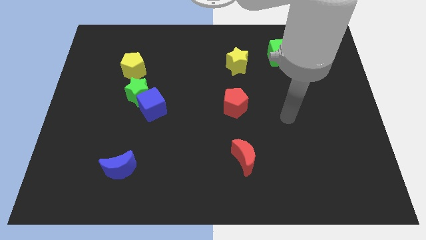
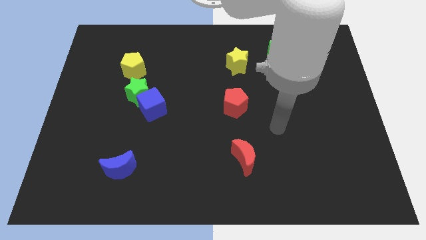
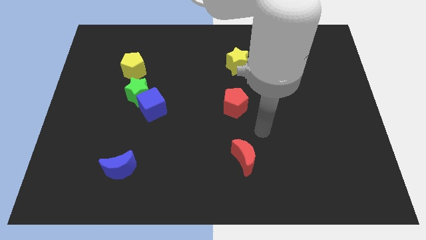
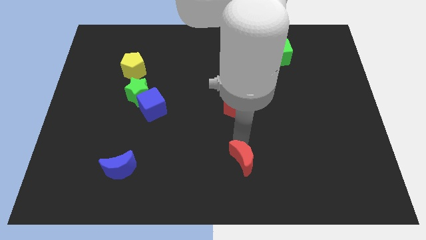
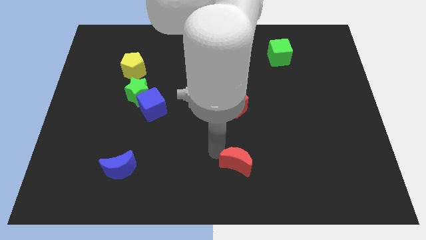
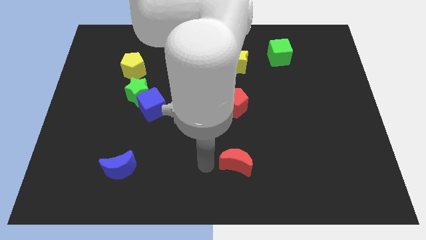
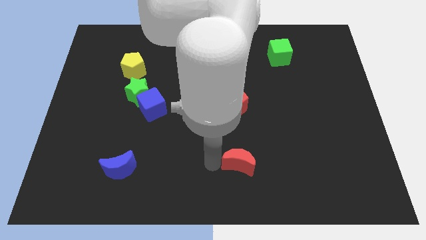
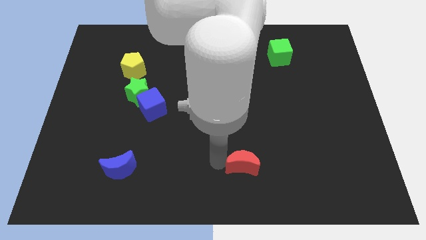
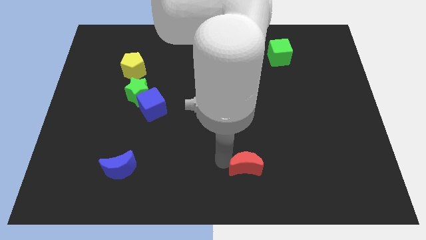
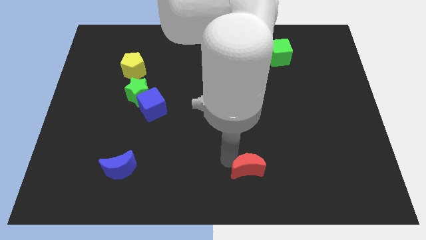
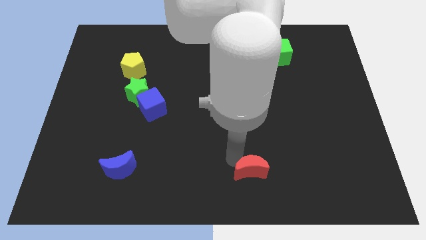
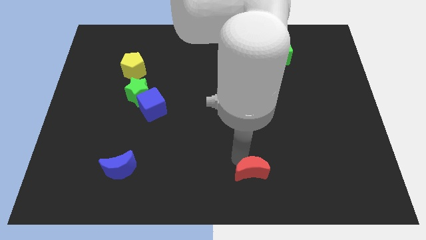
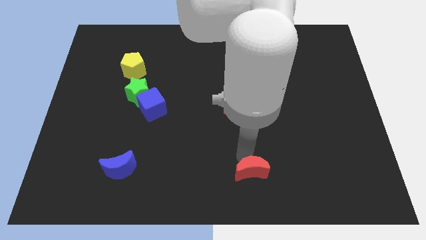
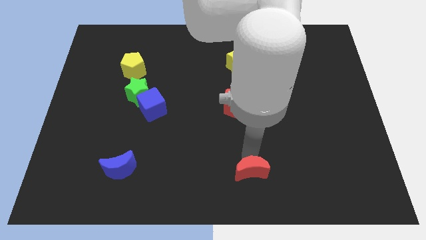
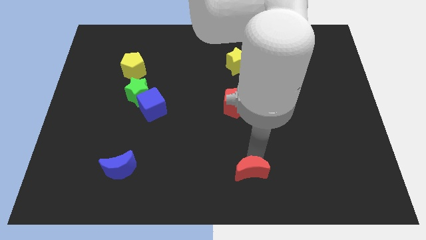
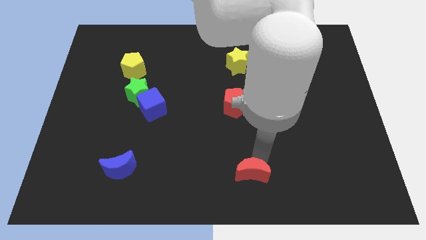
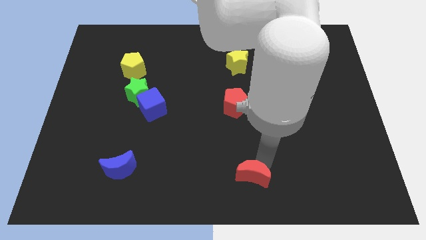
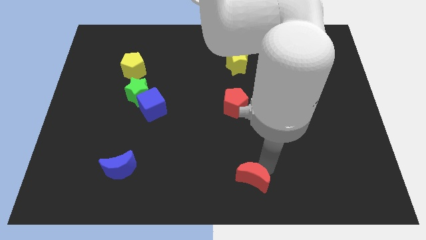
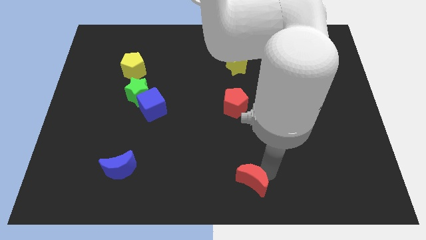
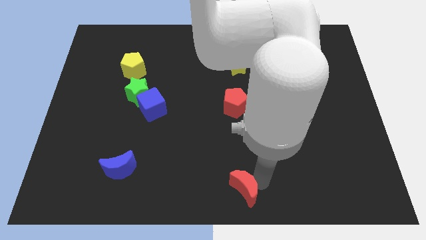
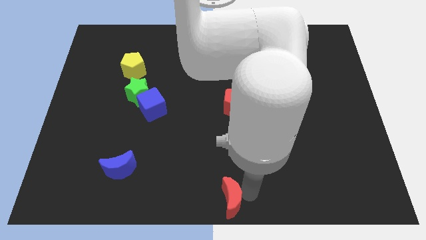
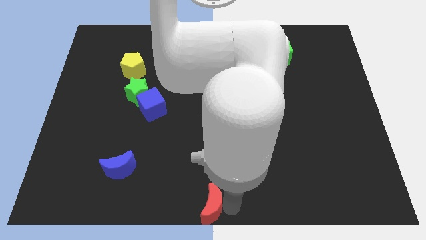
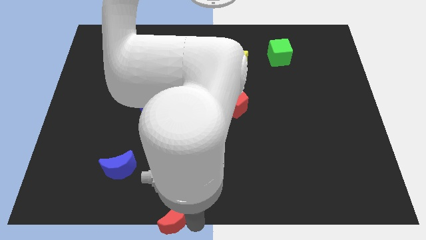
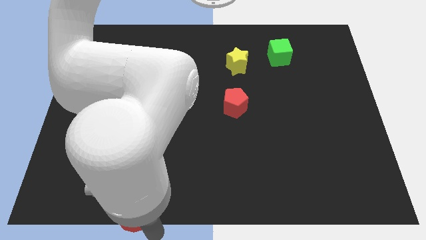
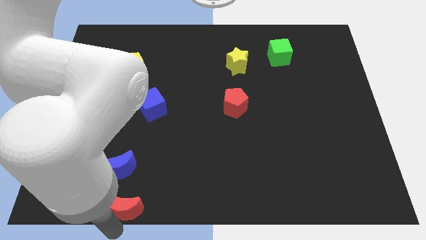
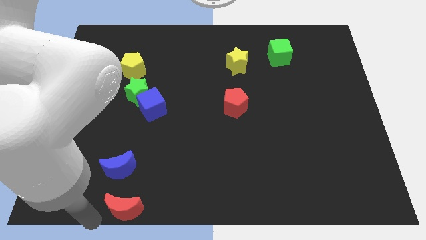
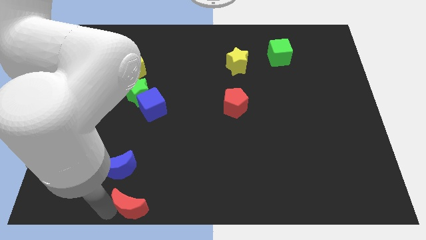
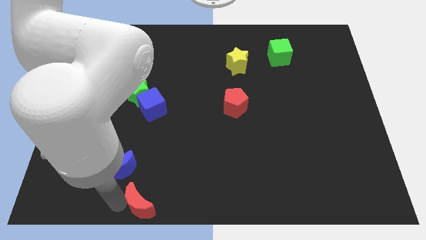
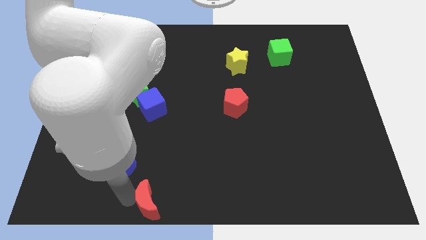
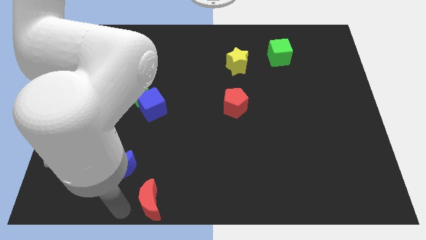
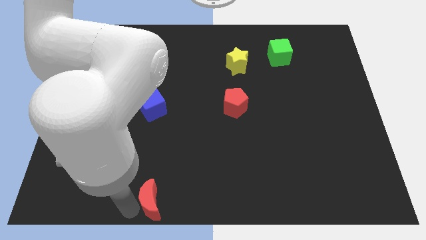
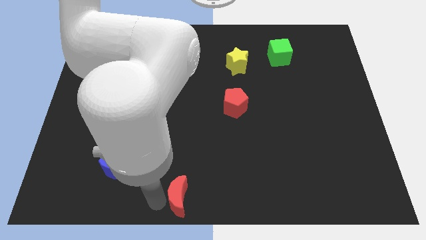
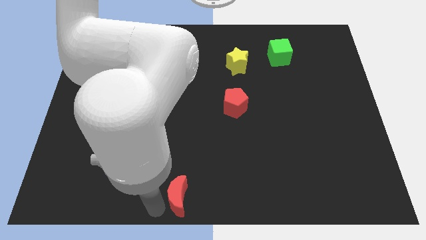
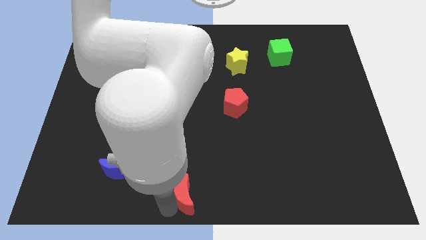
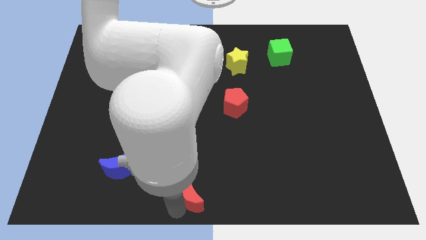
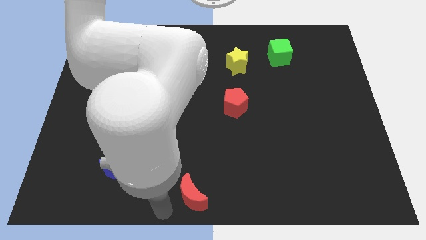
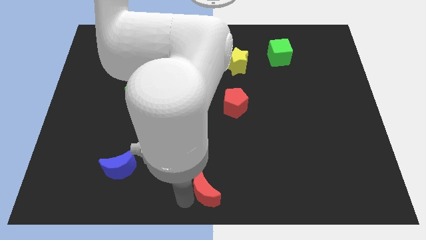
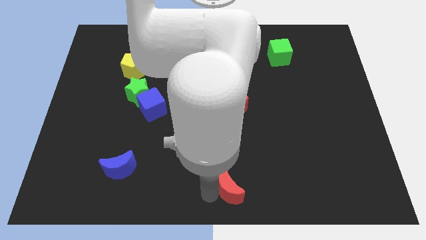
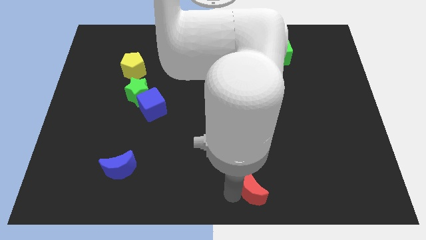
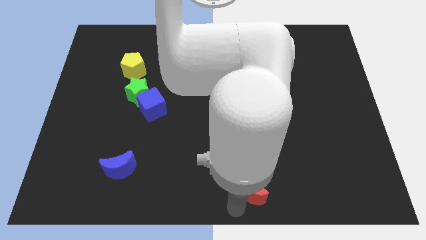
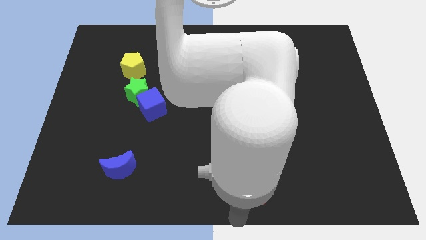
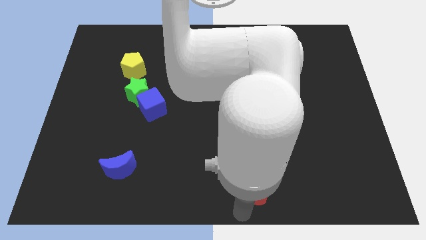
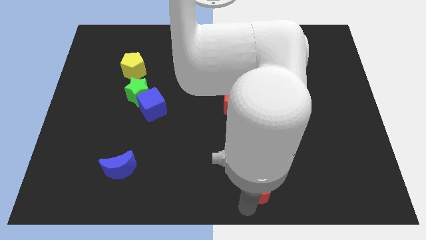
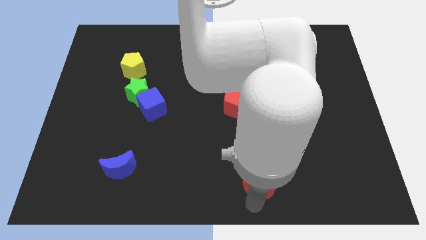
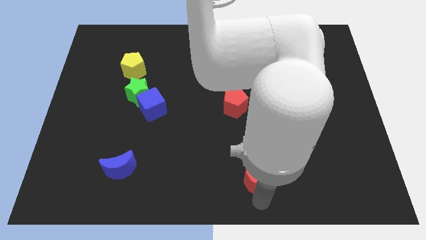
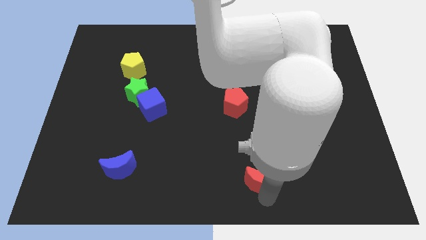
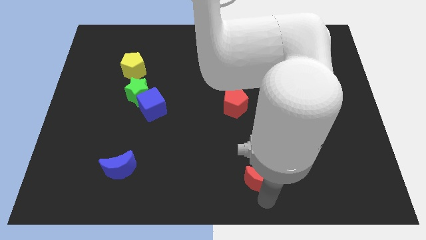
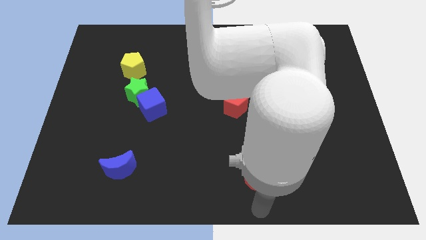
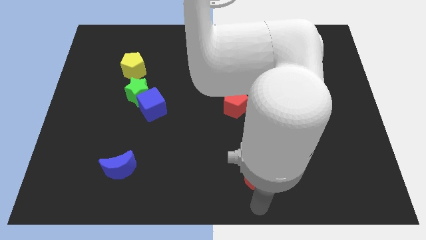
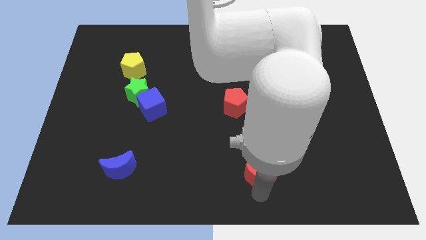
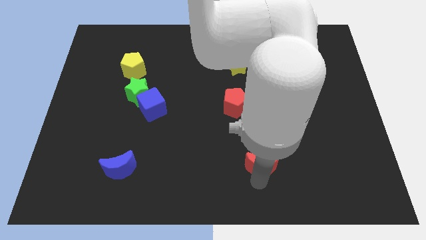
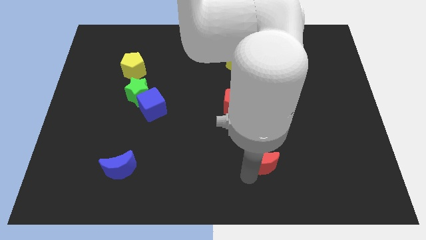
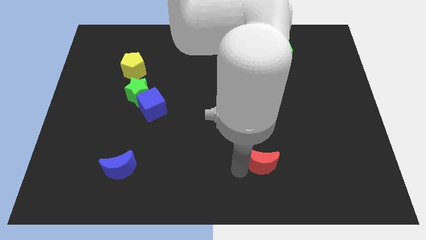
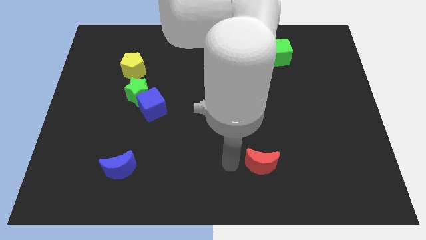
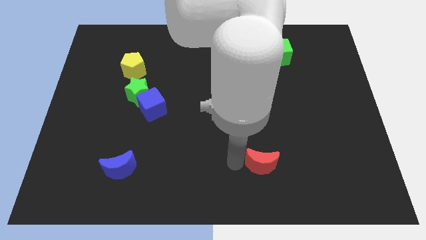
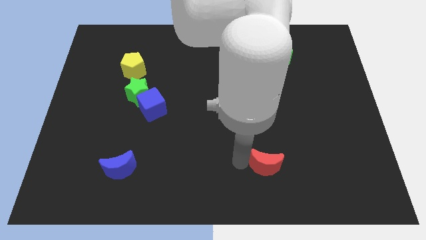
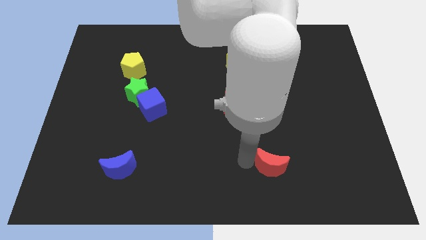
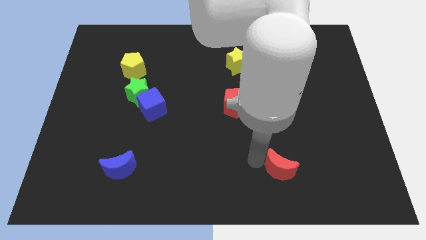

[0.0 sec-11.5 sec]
slightly slide the red moon to the right

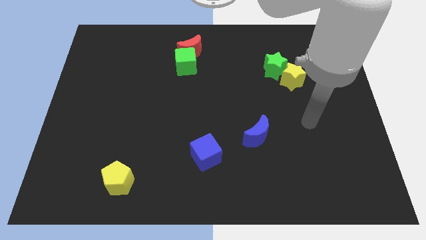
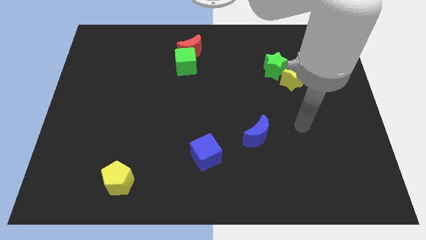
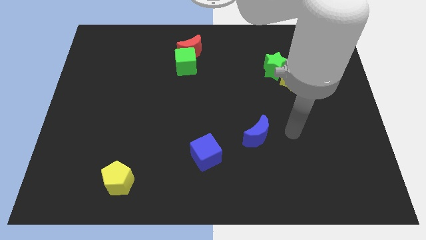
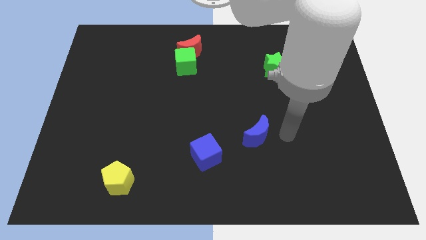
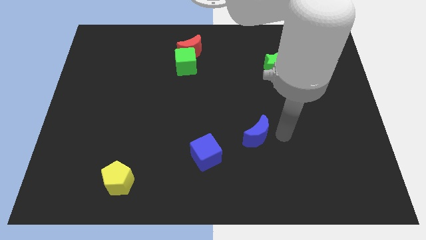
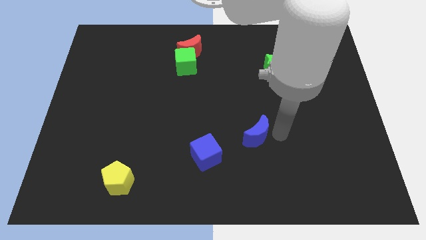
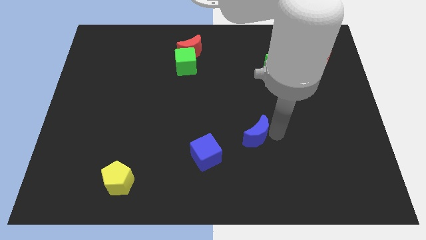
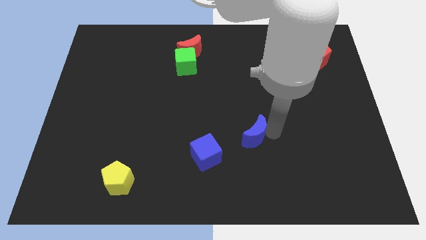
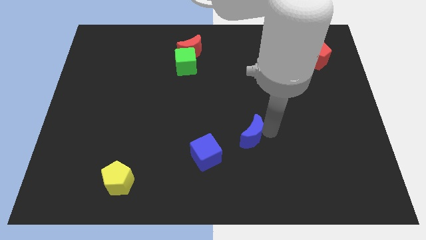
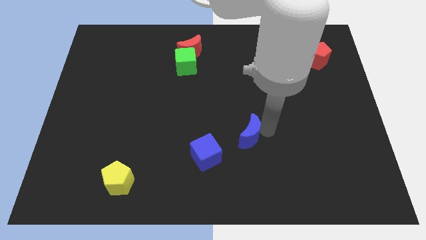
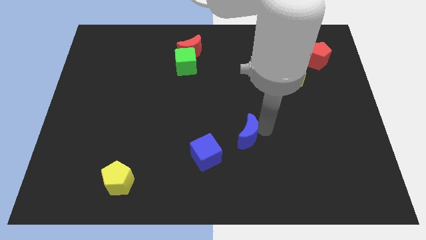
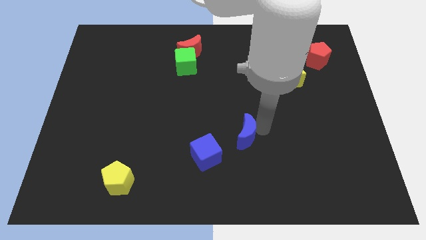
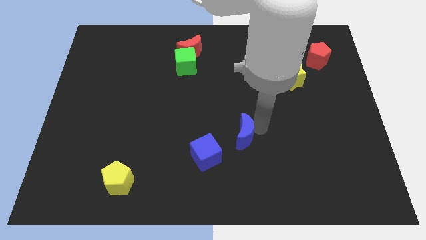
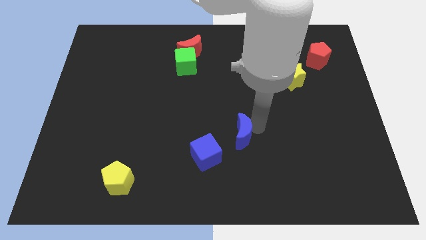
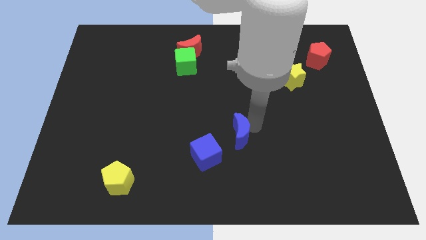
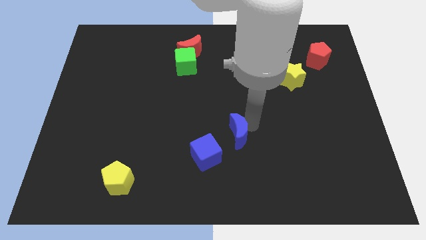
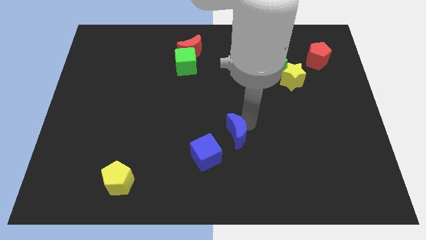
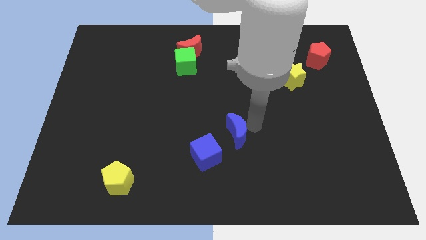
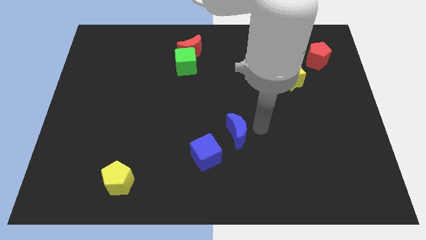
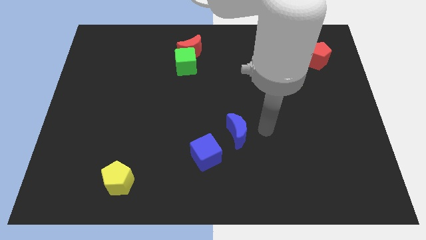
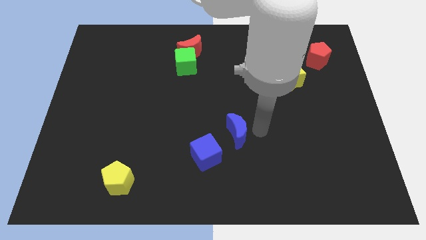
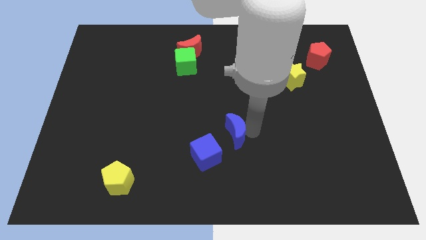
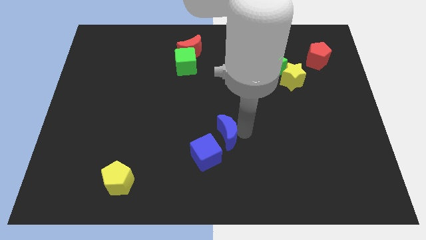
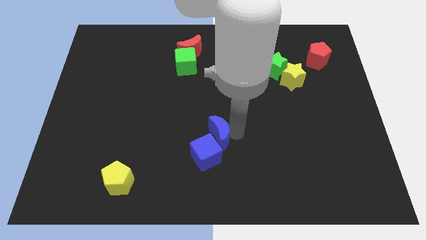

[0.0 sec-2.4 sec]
slightly push the blue moon left
